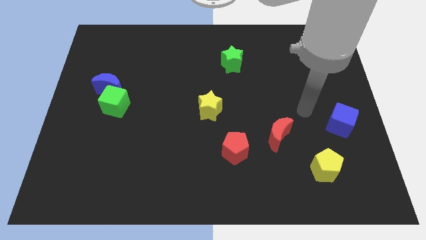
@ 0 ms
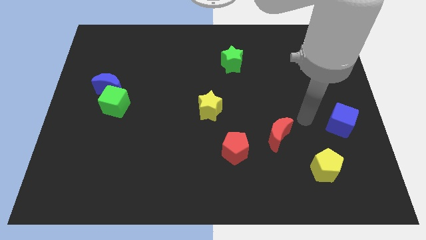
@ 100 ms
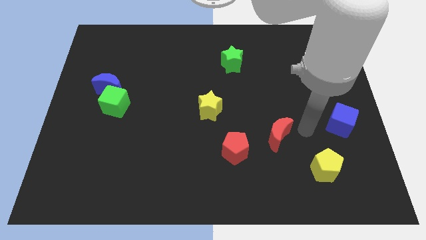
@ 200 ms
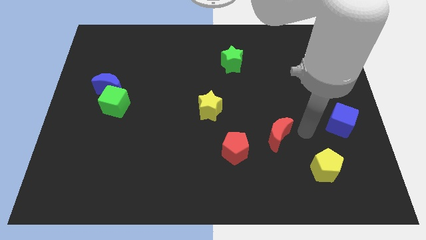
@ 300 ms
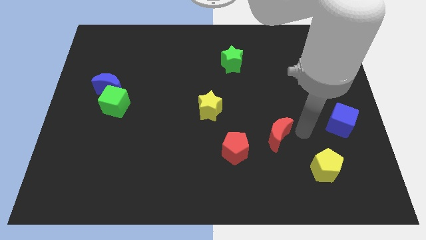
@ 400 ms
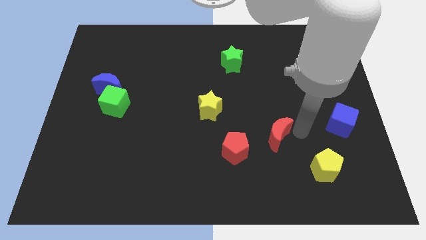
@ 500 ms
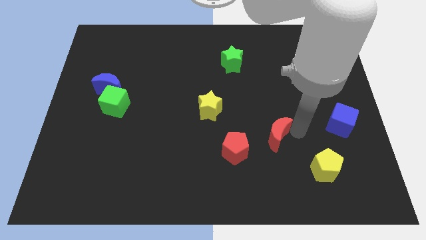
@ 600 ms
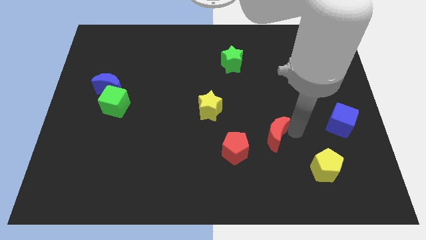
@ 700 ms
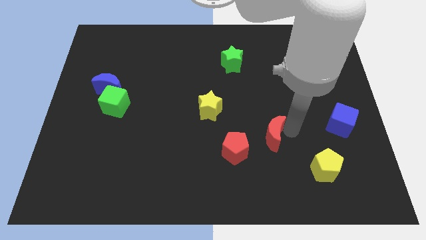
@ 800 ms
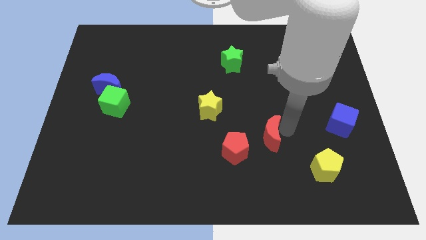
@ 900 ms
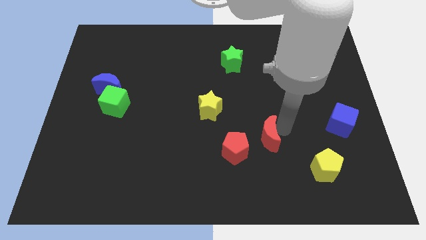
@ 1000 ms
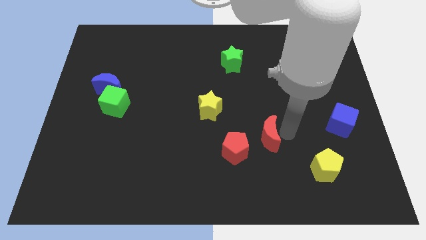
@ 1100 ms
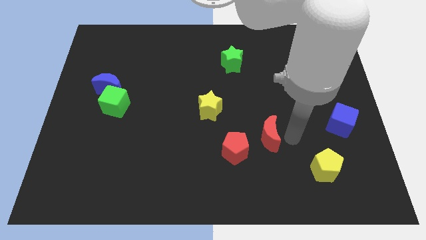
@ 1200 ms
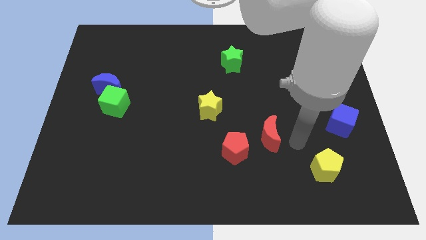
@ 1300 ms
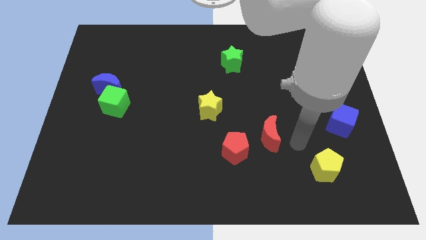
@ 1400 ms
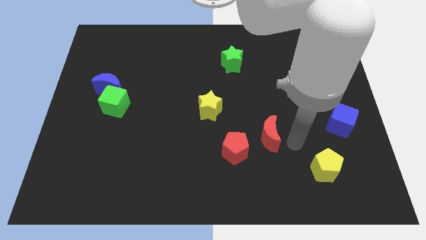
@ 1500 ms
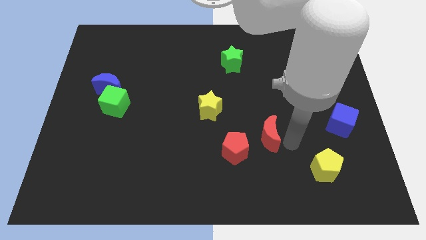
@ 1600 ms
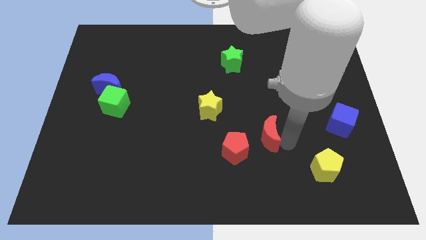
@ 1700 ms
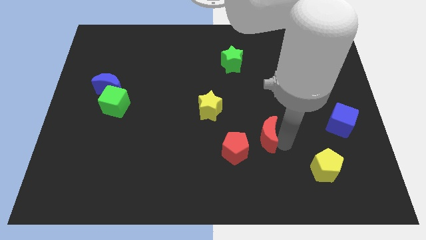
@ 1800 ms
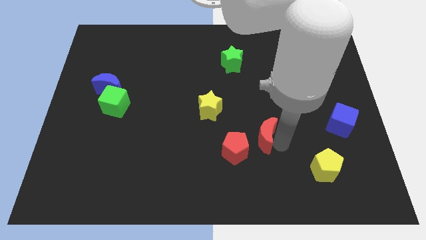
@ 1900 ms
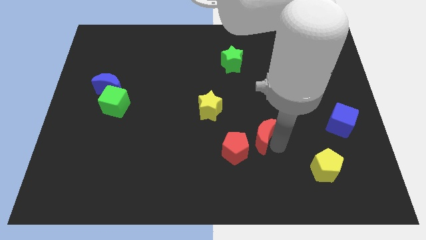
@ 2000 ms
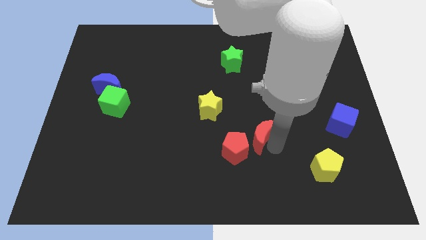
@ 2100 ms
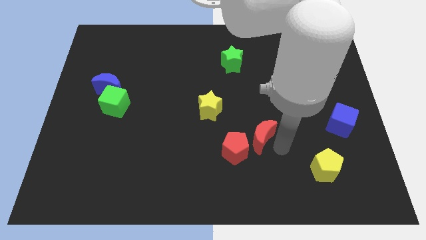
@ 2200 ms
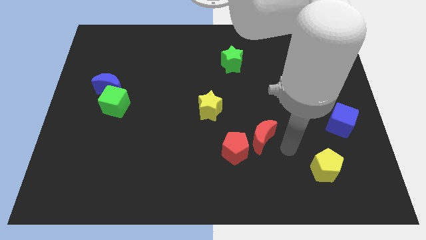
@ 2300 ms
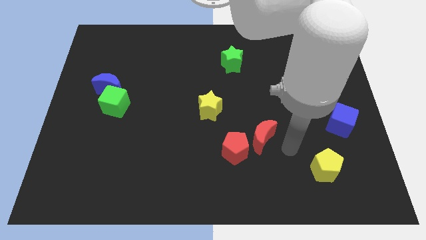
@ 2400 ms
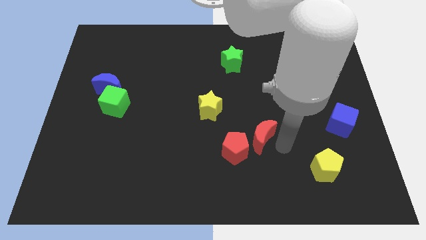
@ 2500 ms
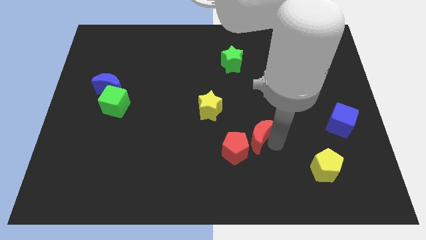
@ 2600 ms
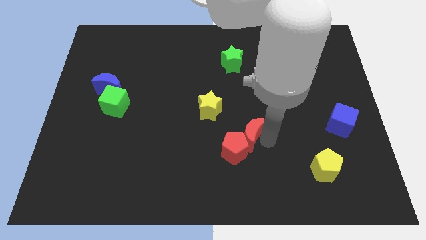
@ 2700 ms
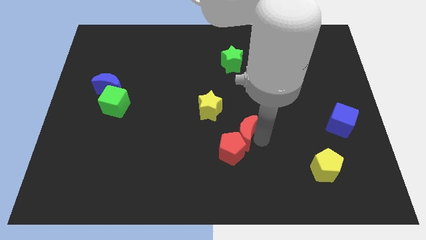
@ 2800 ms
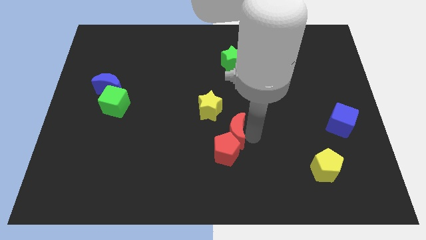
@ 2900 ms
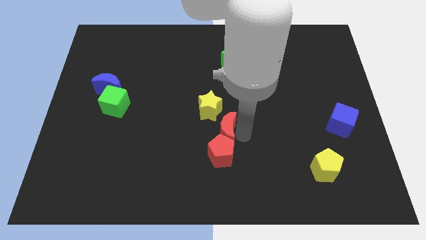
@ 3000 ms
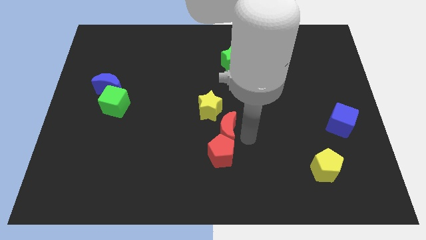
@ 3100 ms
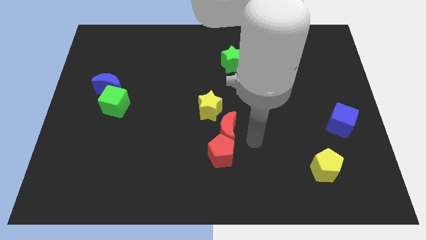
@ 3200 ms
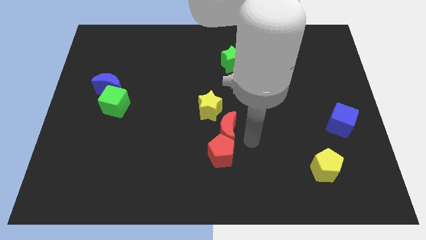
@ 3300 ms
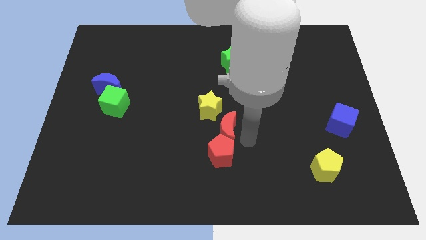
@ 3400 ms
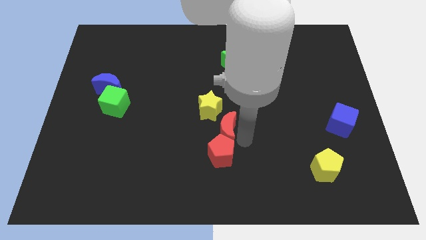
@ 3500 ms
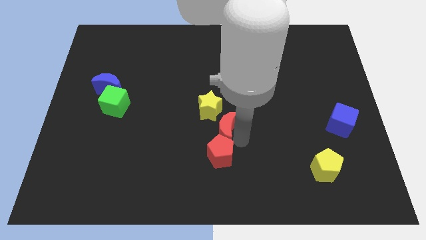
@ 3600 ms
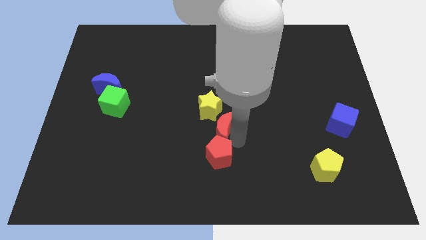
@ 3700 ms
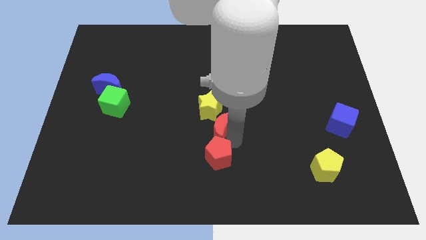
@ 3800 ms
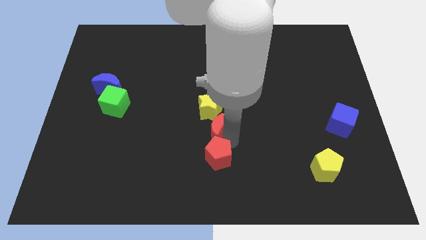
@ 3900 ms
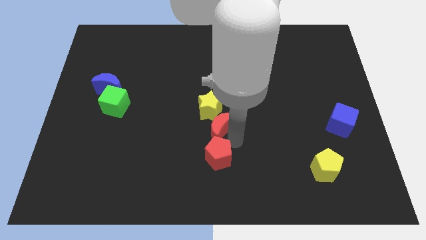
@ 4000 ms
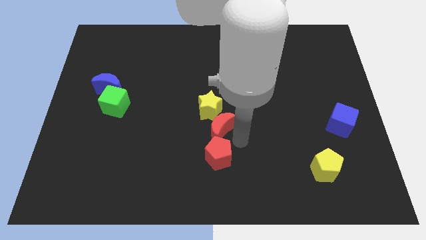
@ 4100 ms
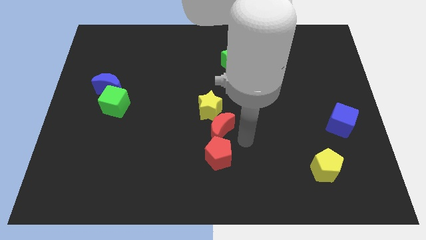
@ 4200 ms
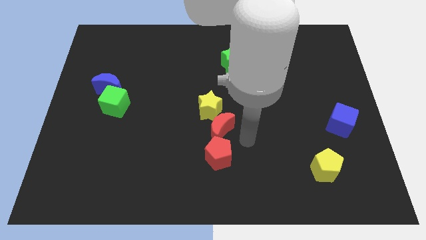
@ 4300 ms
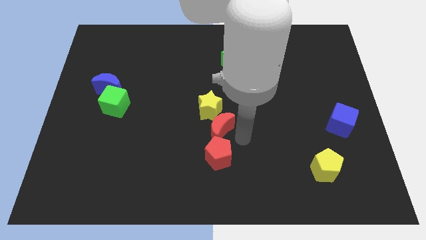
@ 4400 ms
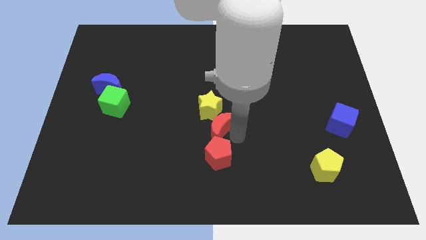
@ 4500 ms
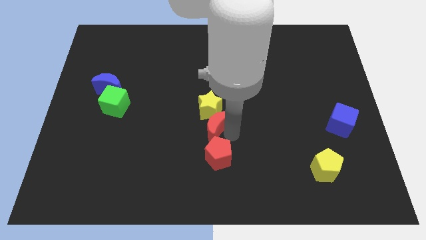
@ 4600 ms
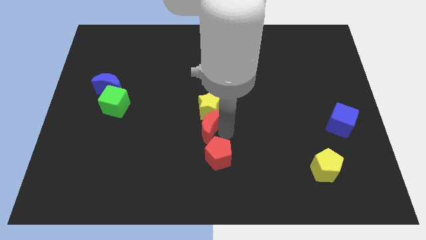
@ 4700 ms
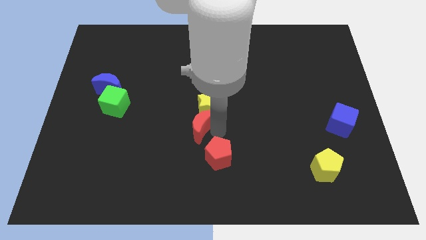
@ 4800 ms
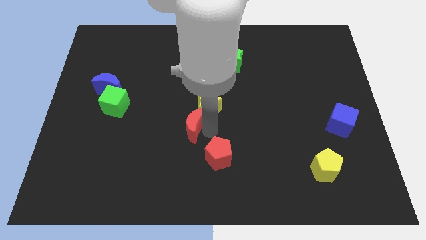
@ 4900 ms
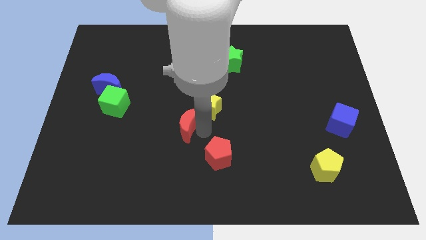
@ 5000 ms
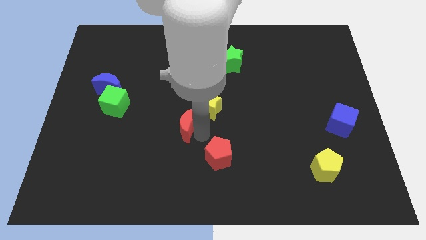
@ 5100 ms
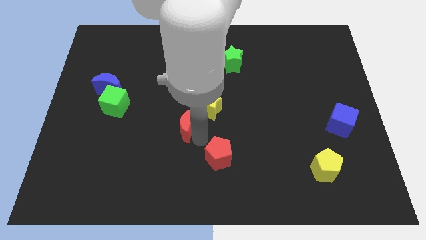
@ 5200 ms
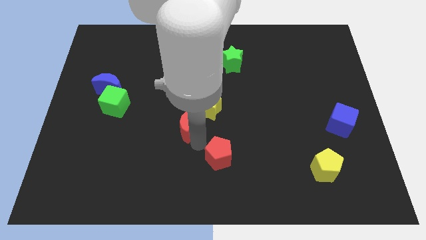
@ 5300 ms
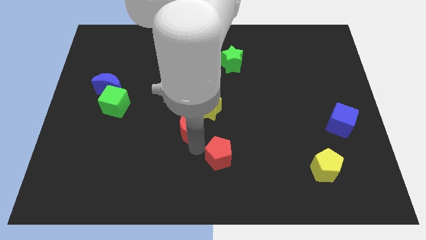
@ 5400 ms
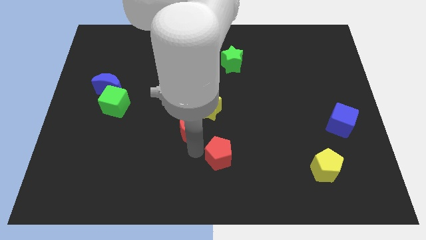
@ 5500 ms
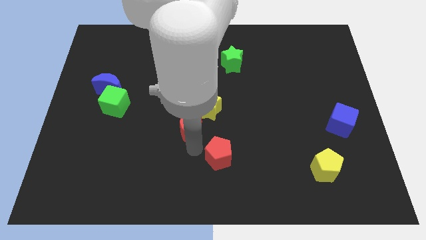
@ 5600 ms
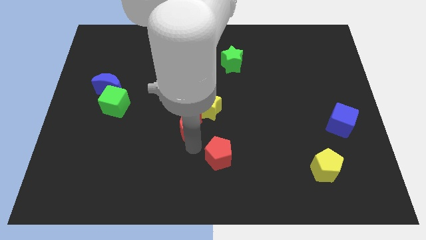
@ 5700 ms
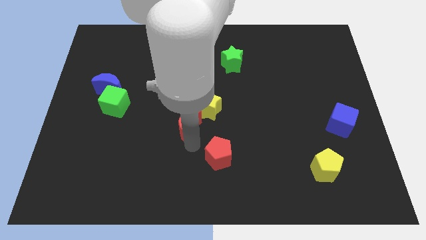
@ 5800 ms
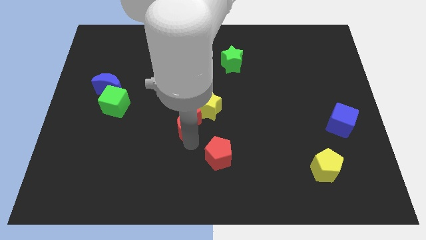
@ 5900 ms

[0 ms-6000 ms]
push the red moon just left of the yellow star

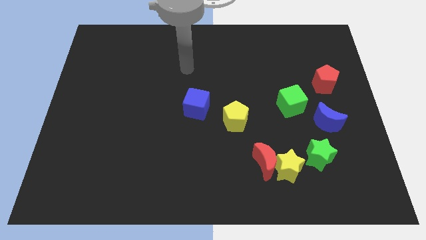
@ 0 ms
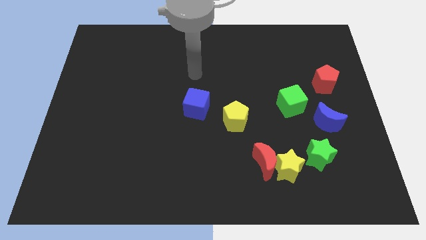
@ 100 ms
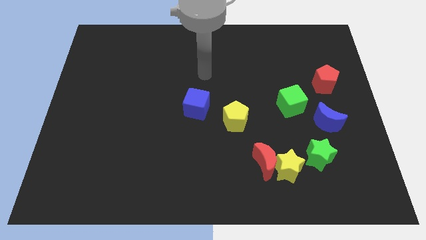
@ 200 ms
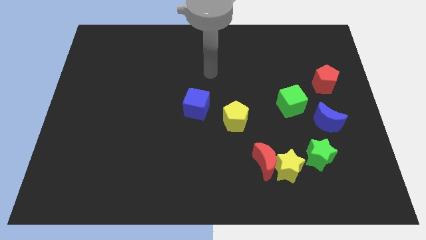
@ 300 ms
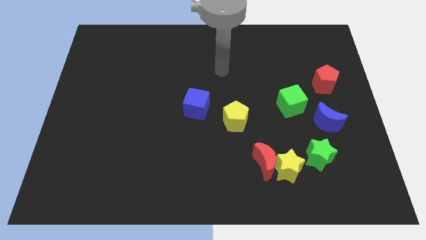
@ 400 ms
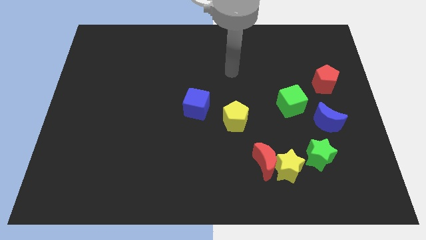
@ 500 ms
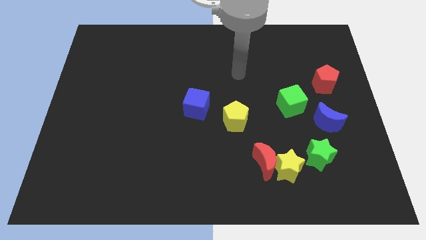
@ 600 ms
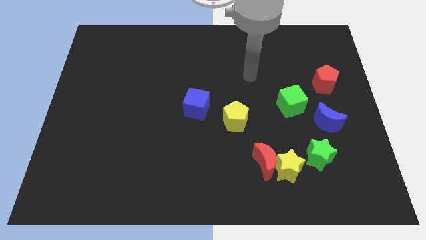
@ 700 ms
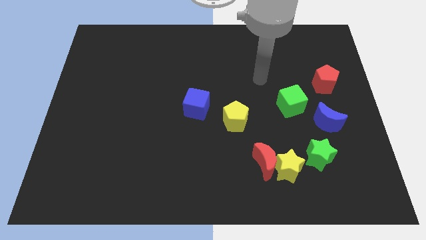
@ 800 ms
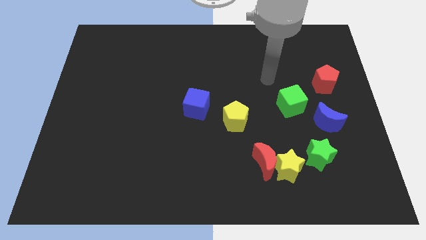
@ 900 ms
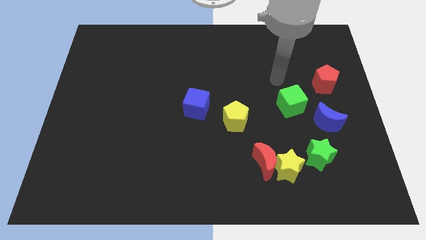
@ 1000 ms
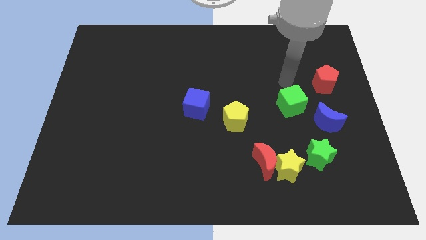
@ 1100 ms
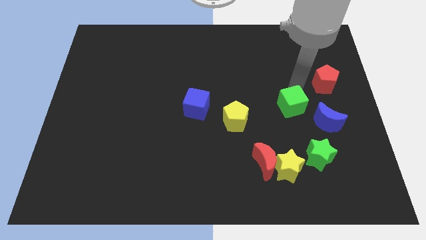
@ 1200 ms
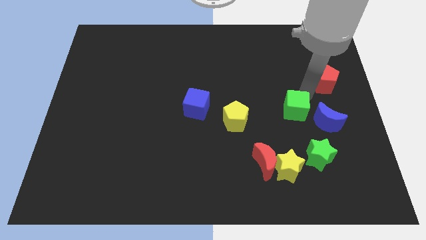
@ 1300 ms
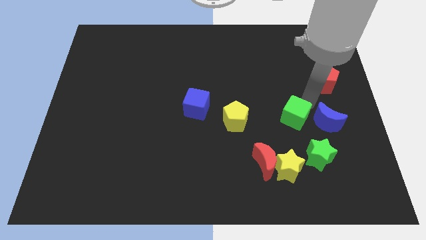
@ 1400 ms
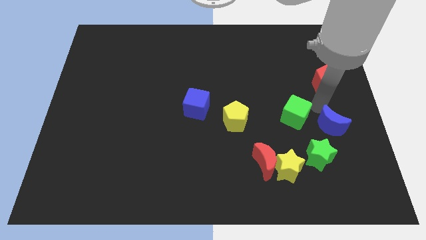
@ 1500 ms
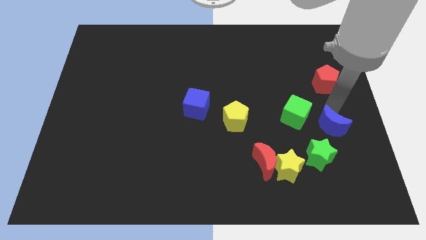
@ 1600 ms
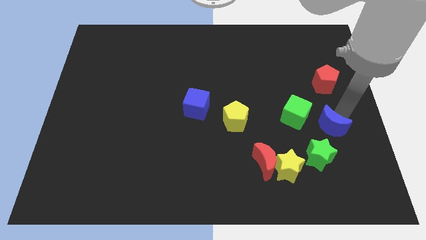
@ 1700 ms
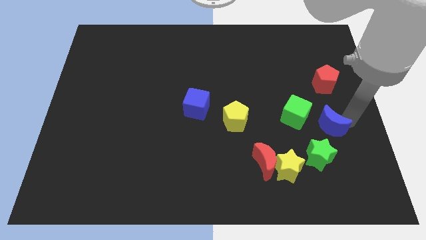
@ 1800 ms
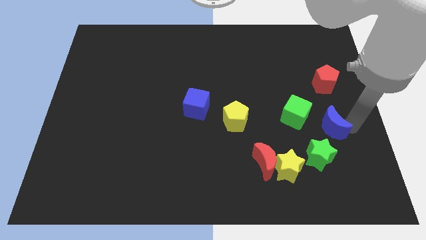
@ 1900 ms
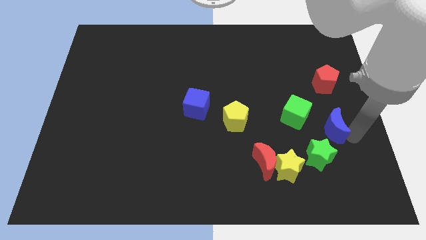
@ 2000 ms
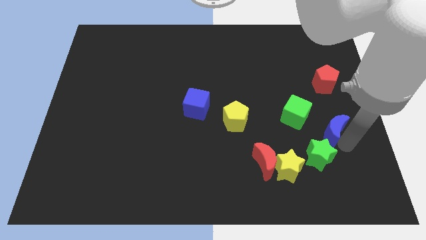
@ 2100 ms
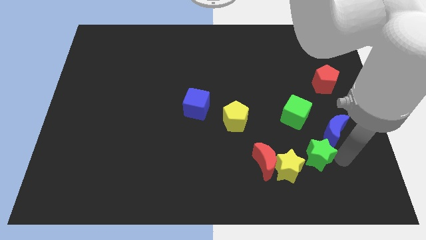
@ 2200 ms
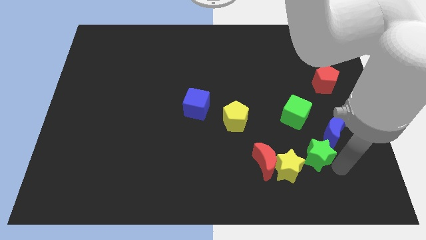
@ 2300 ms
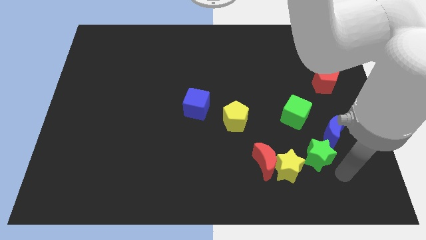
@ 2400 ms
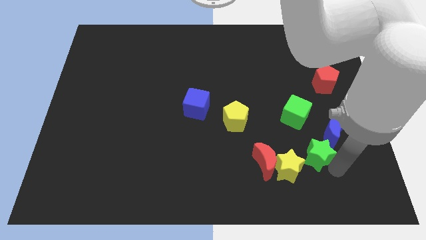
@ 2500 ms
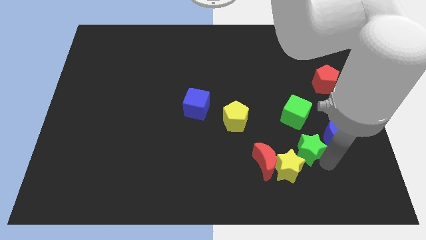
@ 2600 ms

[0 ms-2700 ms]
move the green star just left of the blue moon
